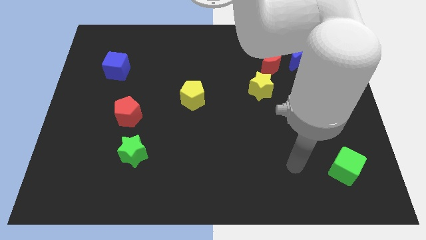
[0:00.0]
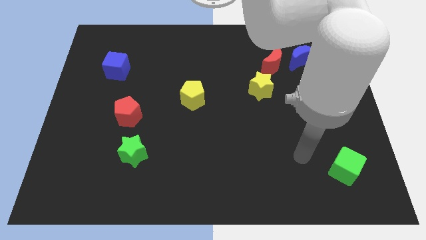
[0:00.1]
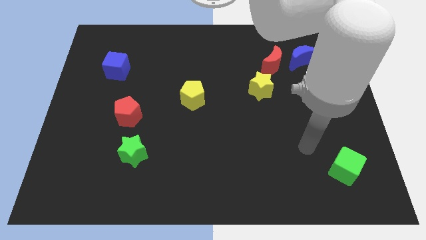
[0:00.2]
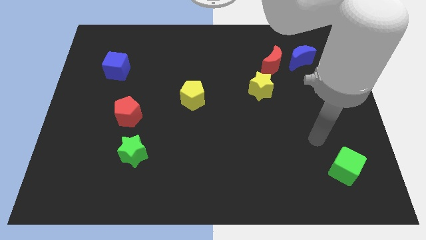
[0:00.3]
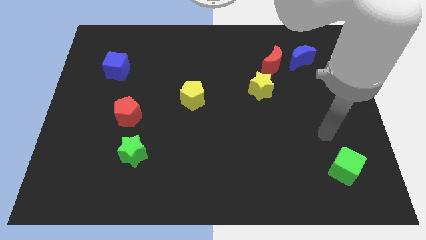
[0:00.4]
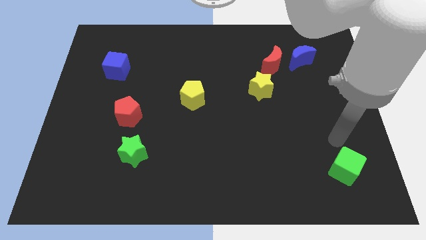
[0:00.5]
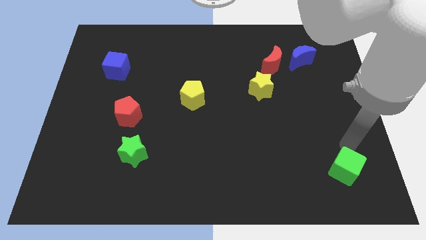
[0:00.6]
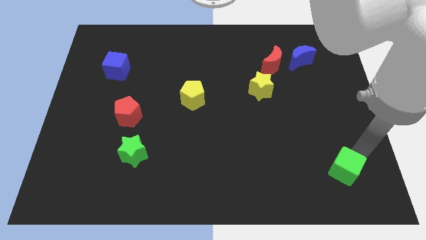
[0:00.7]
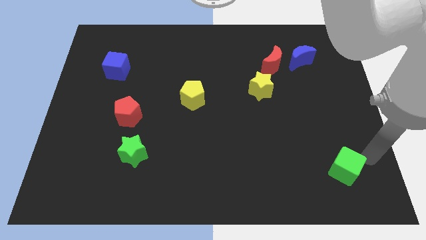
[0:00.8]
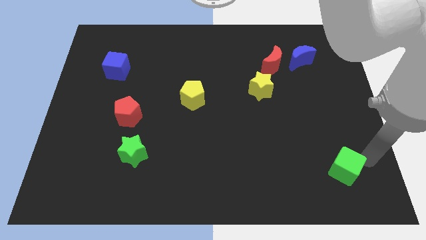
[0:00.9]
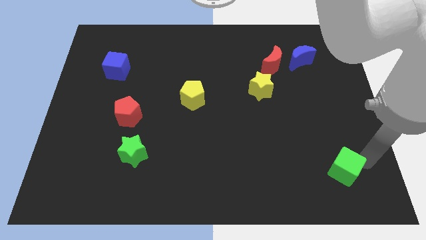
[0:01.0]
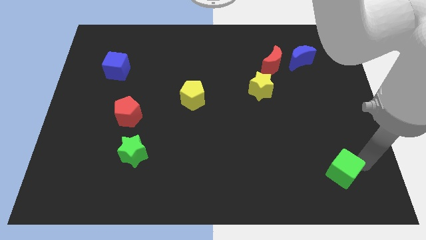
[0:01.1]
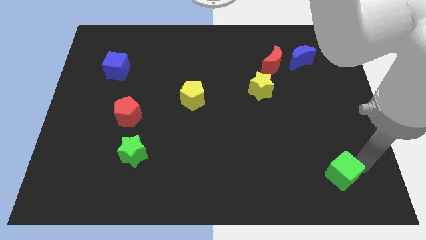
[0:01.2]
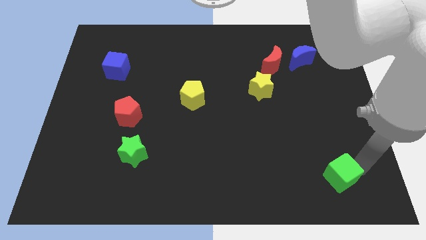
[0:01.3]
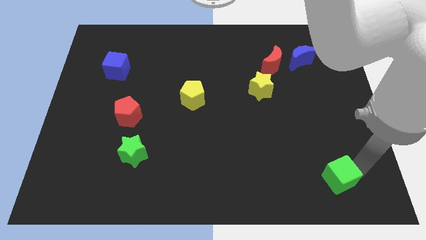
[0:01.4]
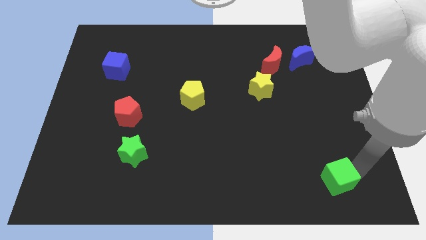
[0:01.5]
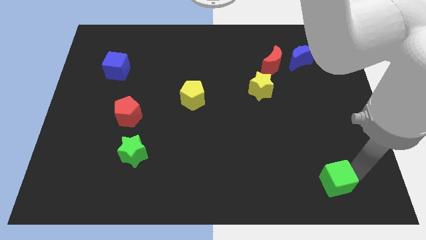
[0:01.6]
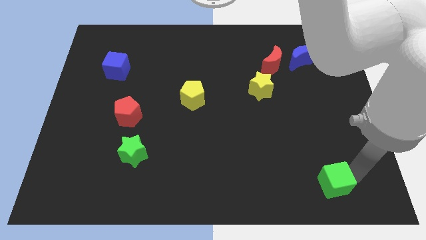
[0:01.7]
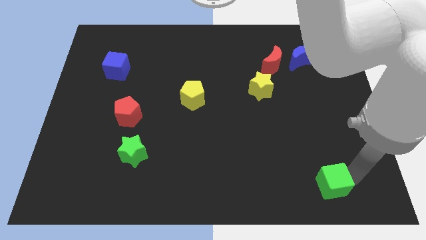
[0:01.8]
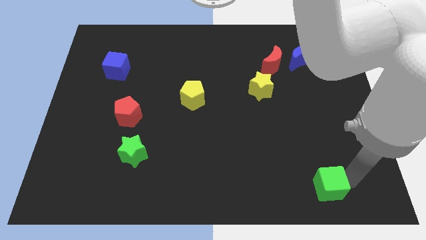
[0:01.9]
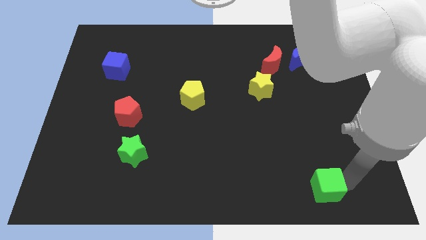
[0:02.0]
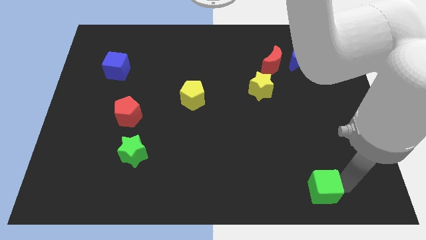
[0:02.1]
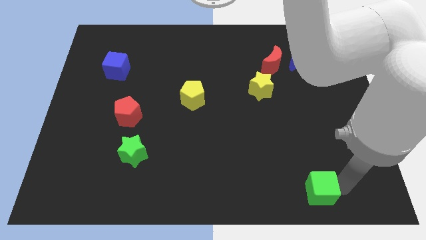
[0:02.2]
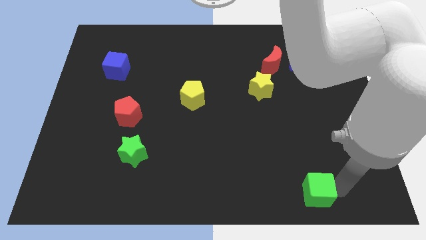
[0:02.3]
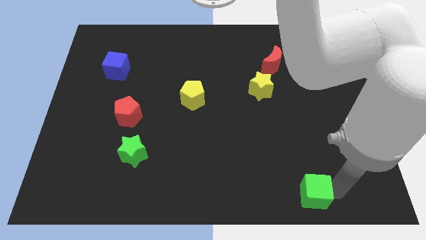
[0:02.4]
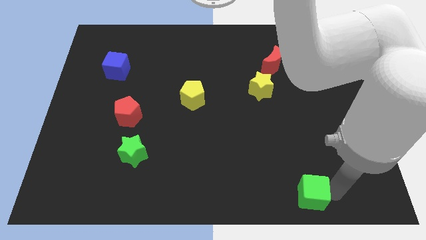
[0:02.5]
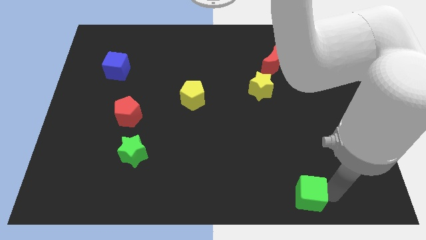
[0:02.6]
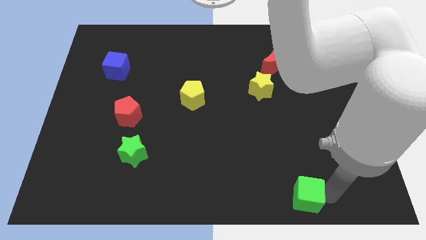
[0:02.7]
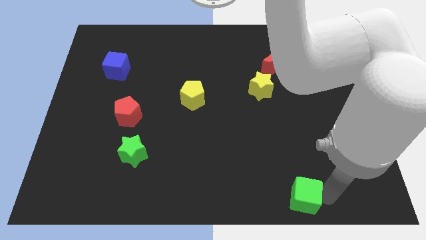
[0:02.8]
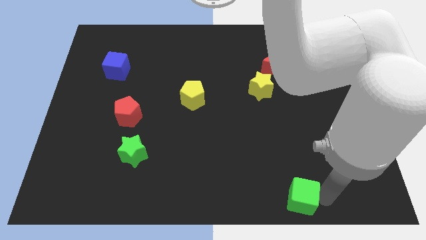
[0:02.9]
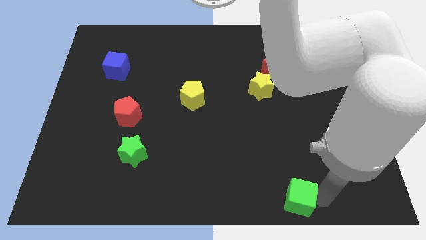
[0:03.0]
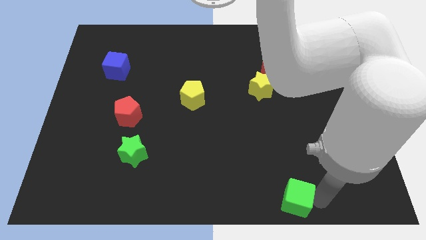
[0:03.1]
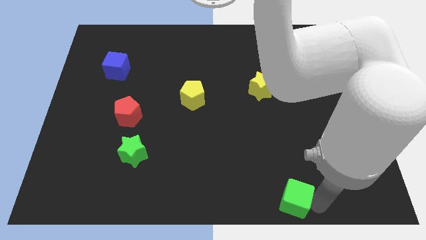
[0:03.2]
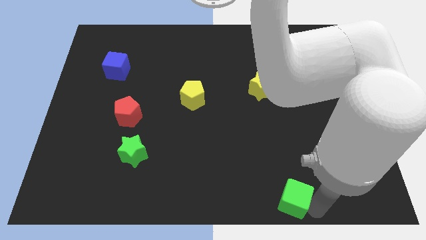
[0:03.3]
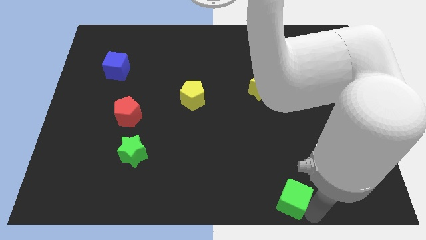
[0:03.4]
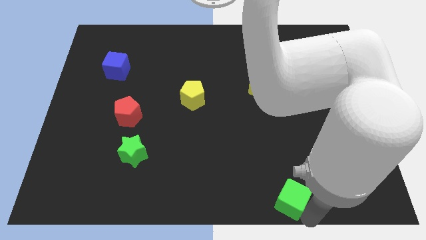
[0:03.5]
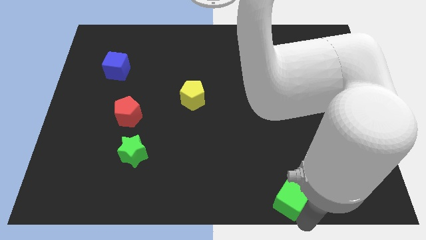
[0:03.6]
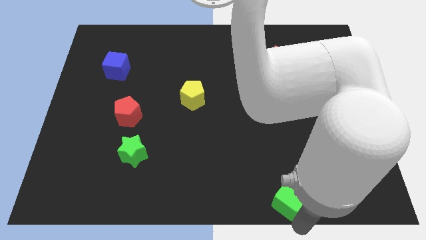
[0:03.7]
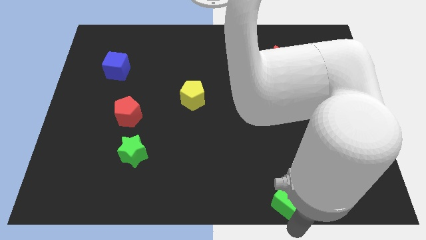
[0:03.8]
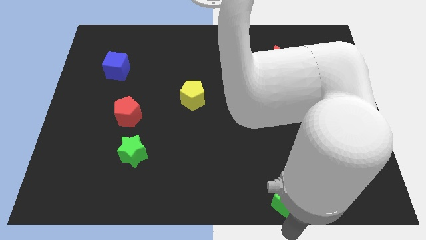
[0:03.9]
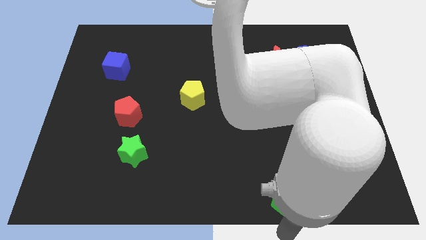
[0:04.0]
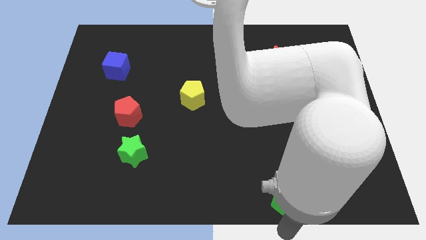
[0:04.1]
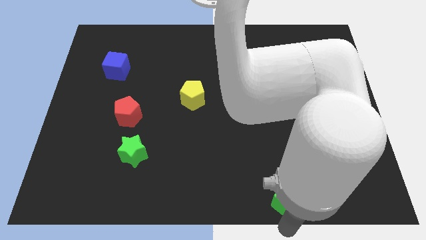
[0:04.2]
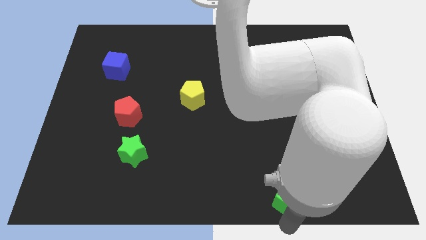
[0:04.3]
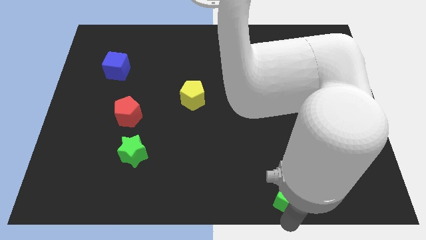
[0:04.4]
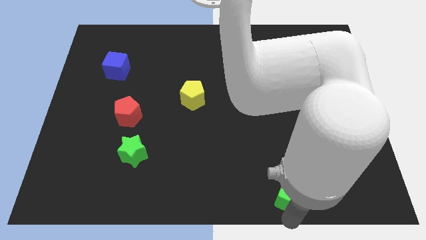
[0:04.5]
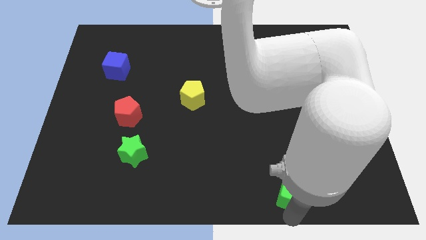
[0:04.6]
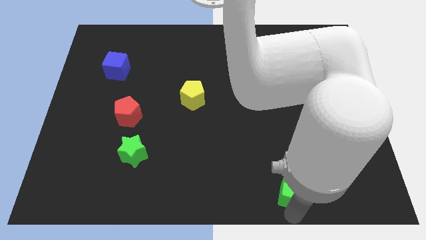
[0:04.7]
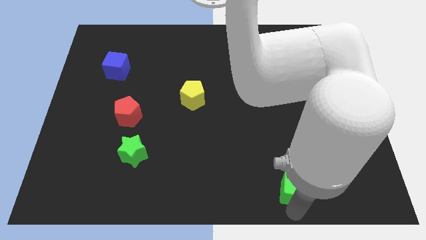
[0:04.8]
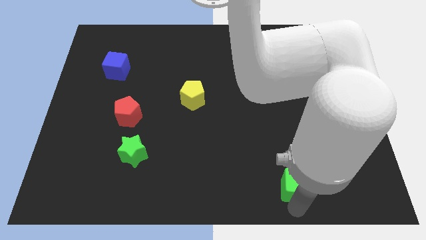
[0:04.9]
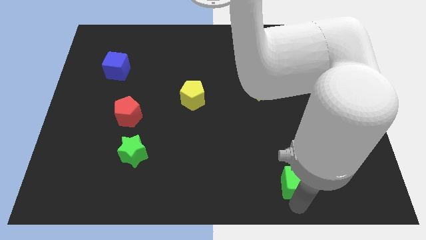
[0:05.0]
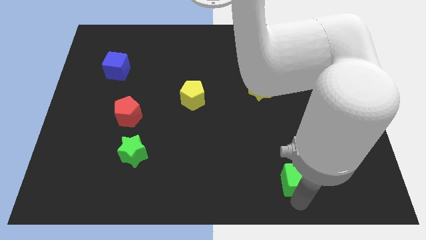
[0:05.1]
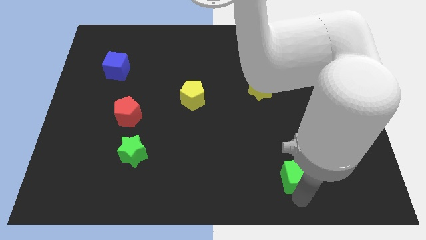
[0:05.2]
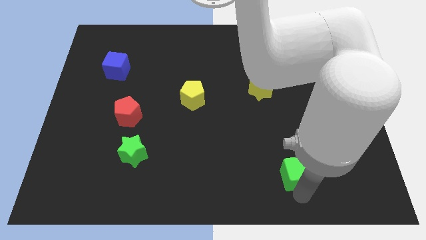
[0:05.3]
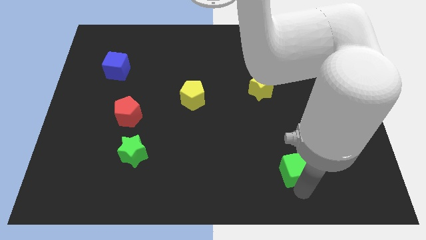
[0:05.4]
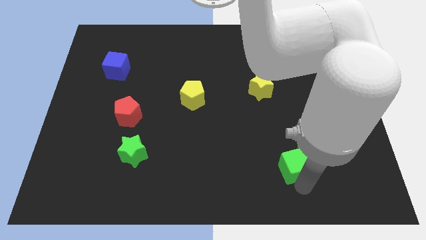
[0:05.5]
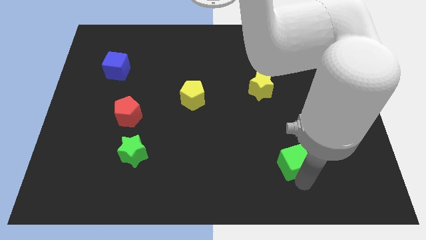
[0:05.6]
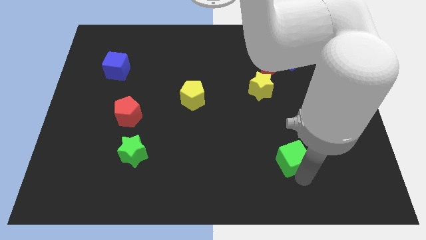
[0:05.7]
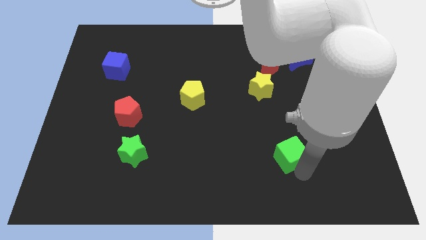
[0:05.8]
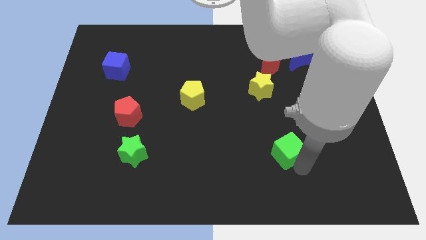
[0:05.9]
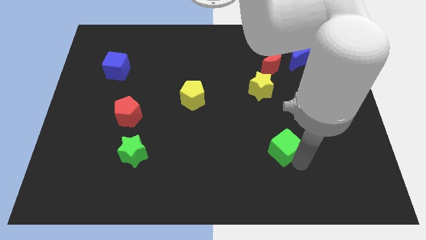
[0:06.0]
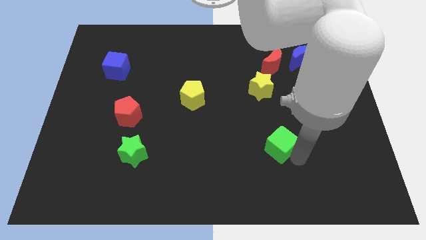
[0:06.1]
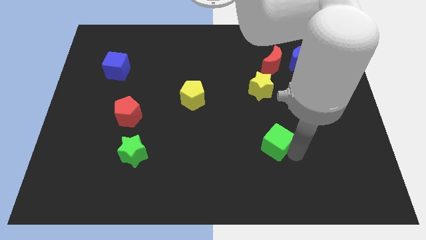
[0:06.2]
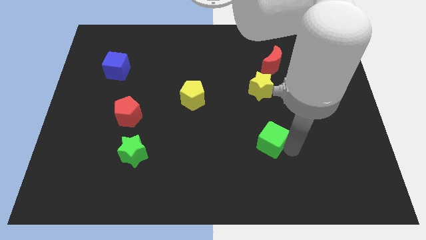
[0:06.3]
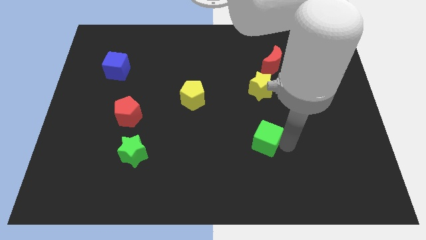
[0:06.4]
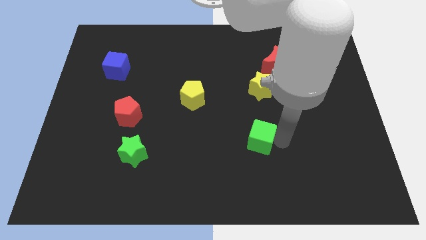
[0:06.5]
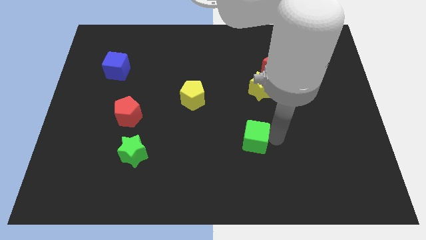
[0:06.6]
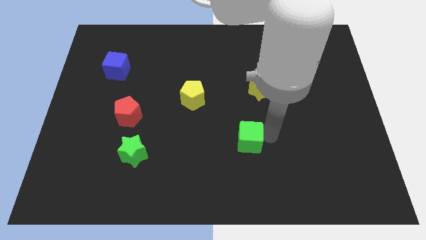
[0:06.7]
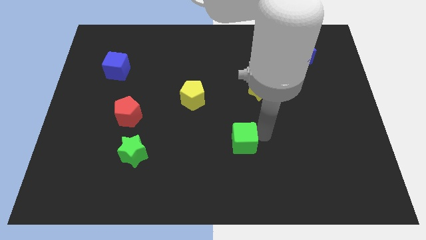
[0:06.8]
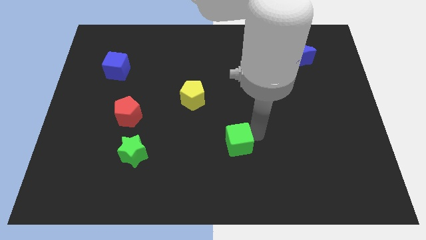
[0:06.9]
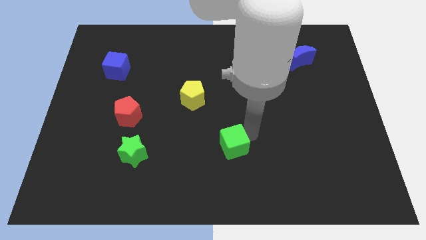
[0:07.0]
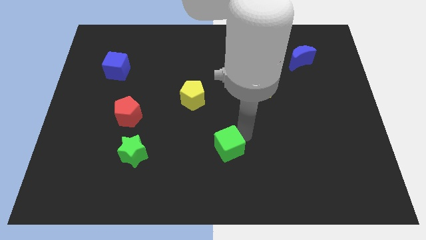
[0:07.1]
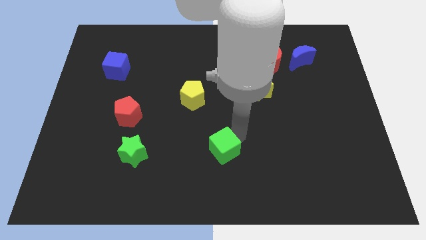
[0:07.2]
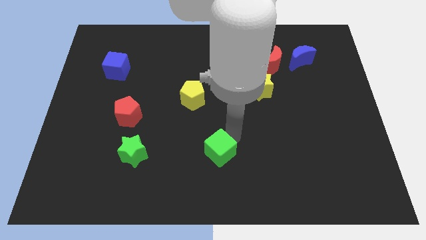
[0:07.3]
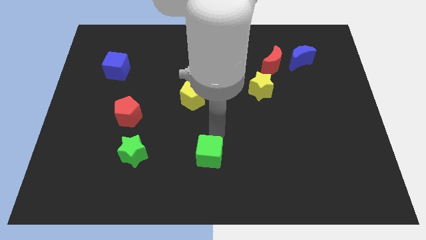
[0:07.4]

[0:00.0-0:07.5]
move the green cube to the bottom
